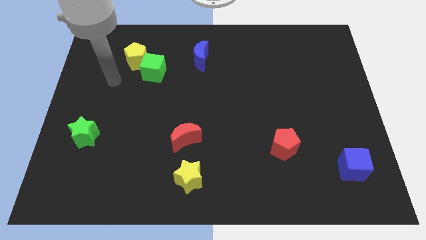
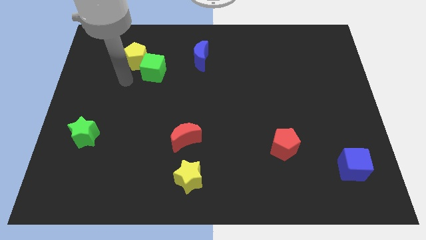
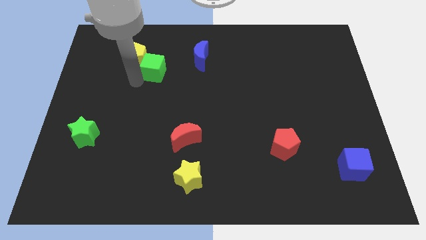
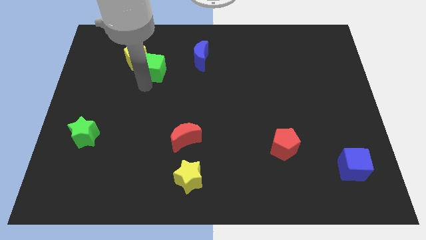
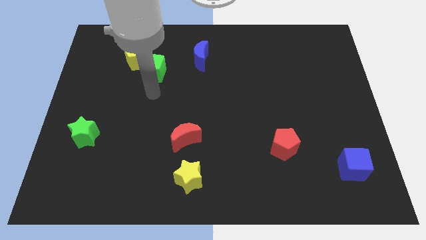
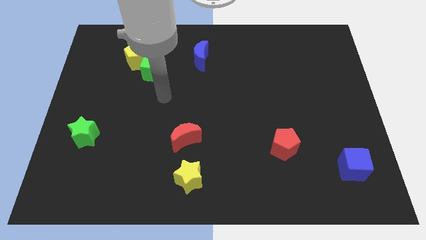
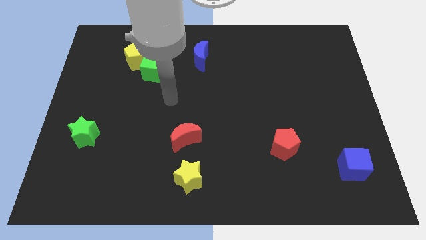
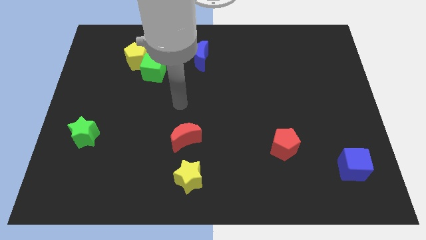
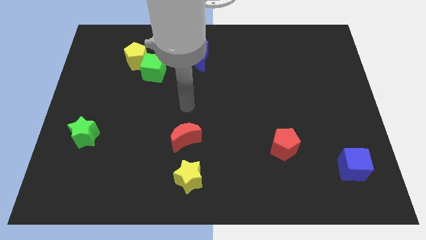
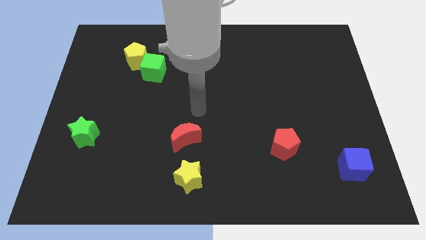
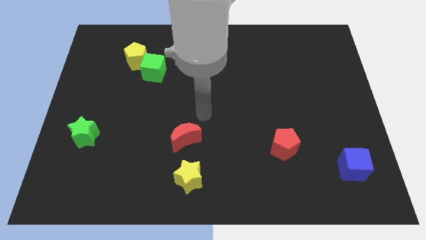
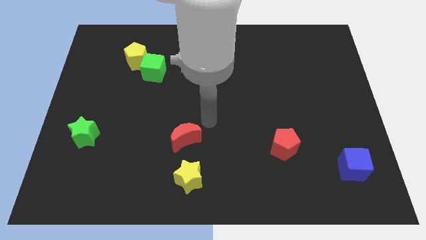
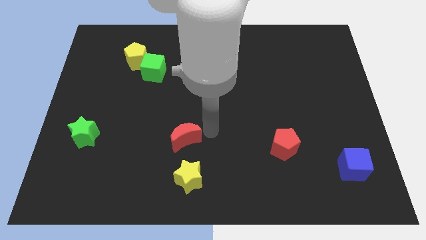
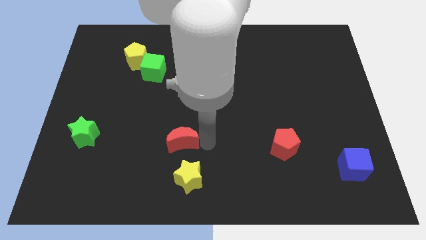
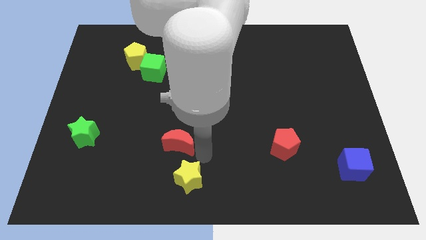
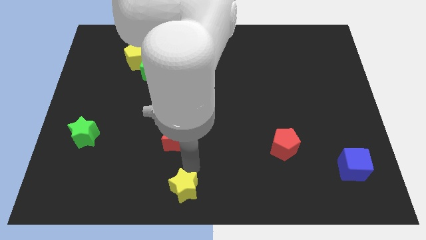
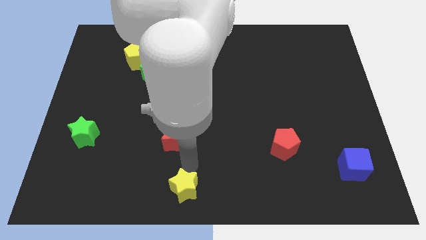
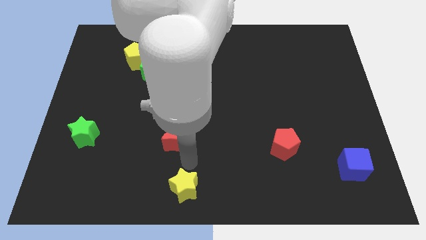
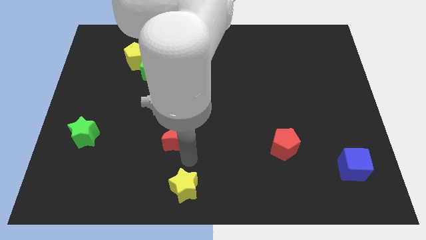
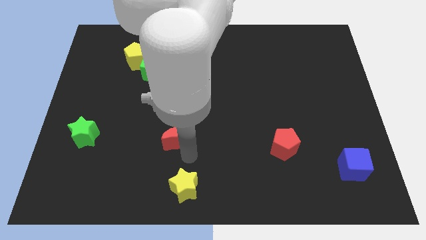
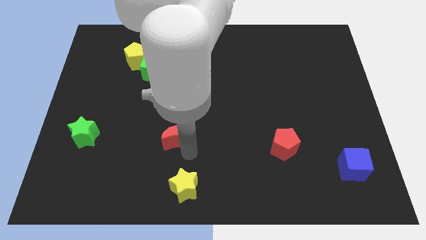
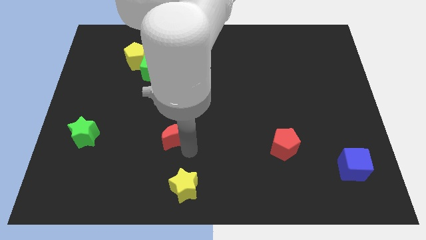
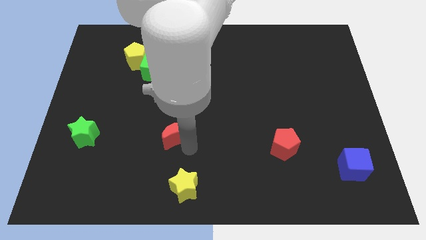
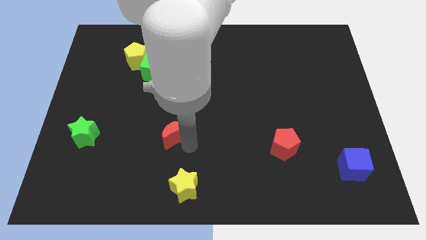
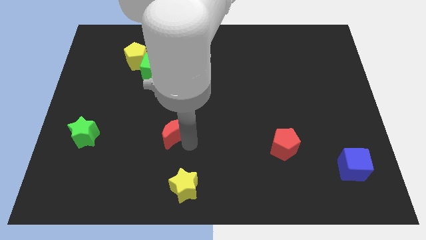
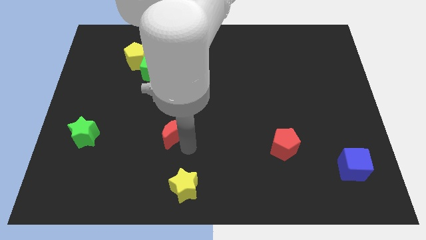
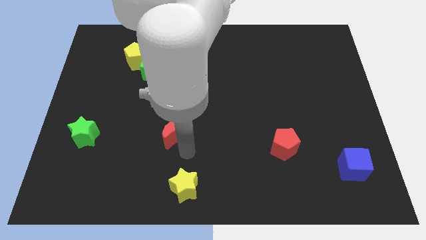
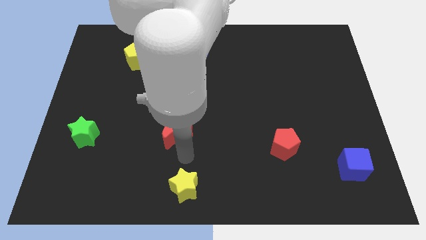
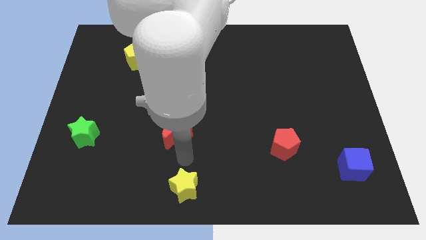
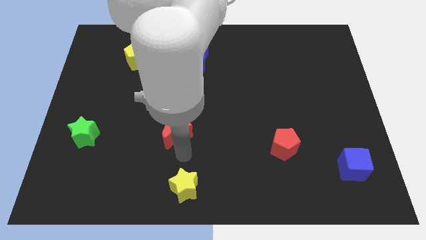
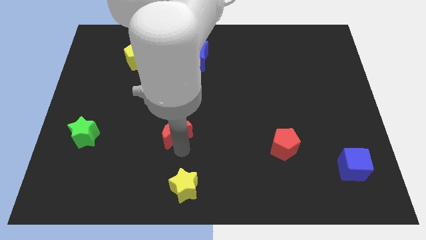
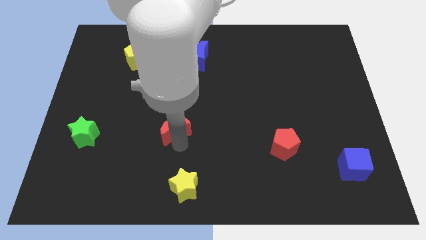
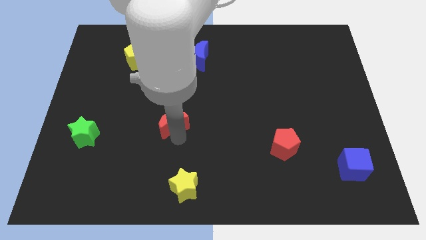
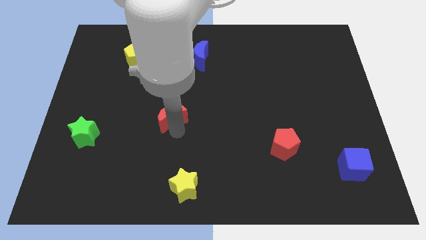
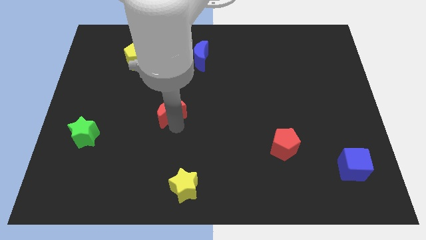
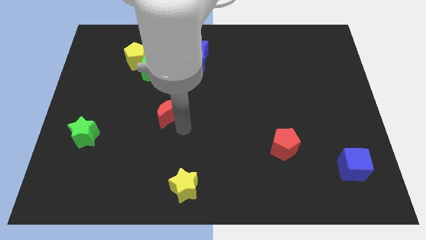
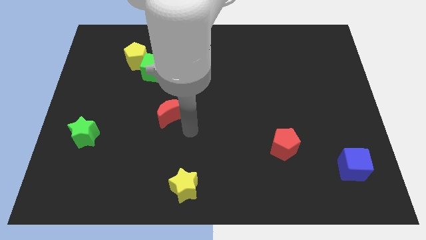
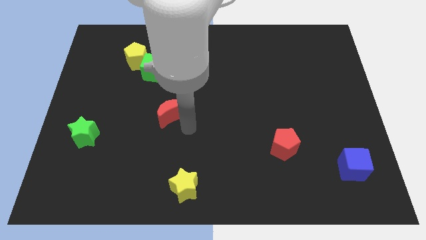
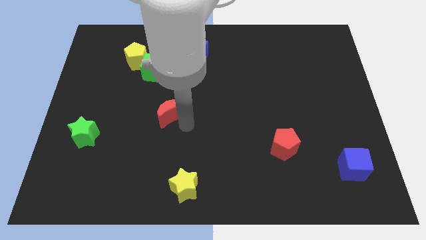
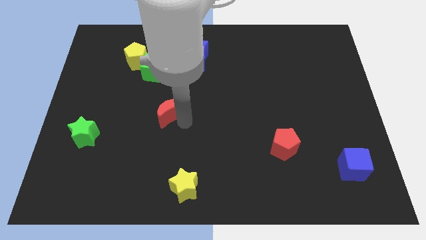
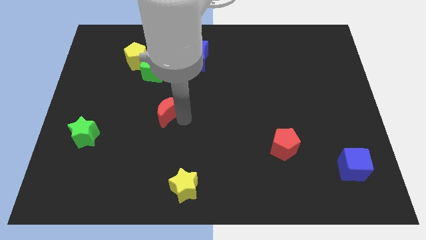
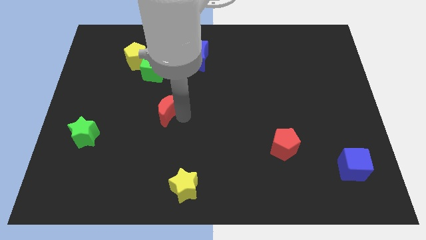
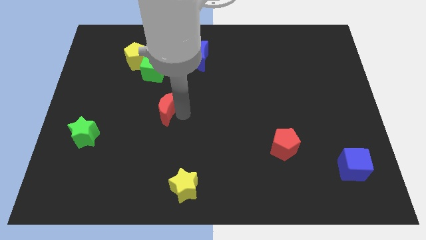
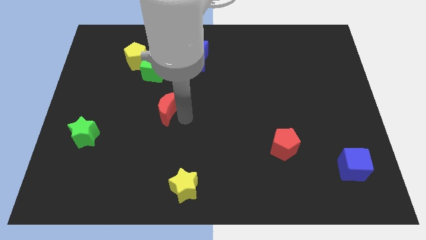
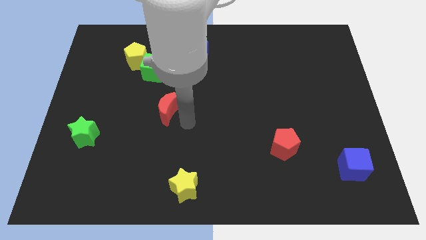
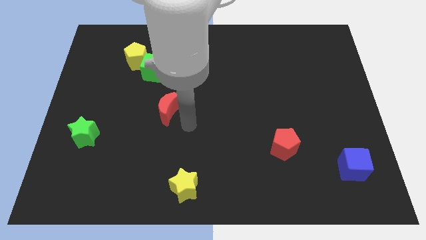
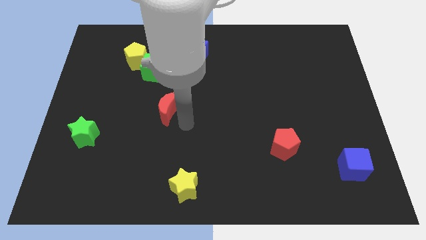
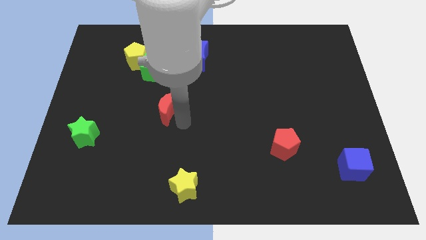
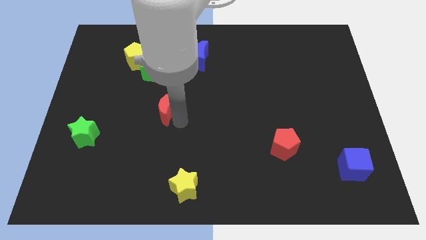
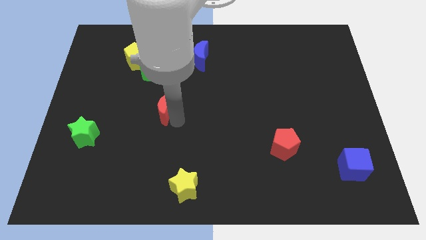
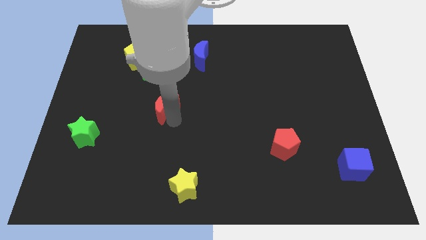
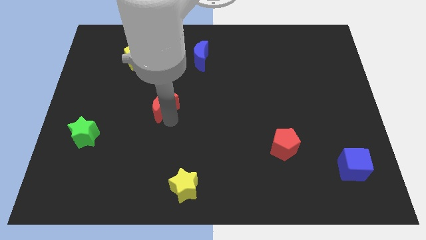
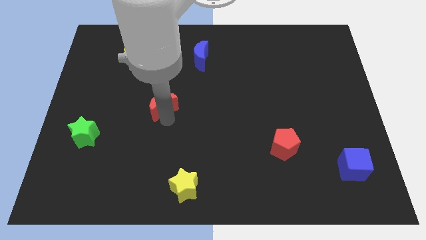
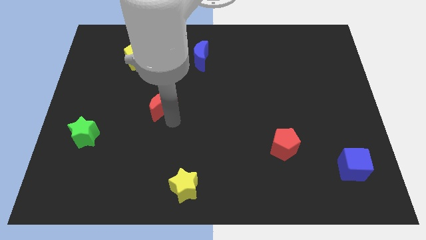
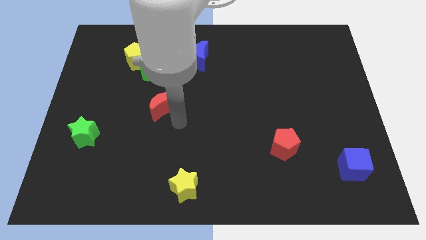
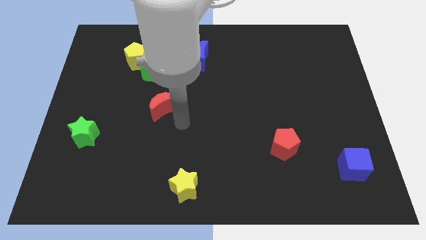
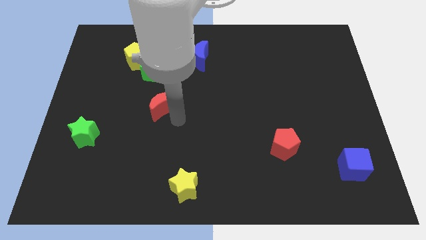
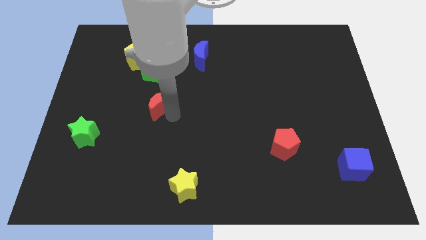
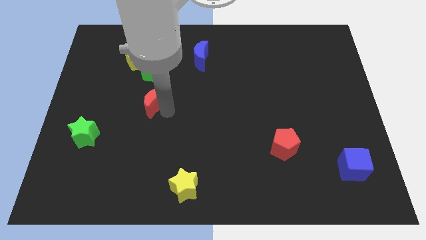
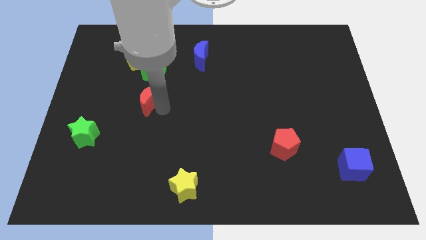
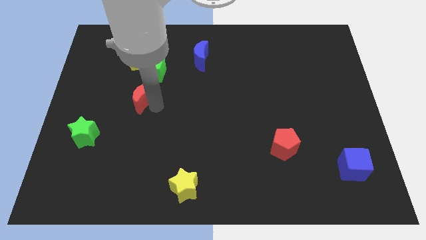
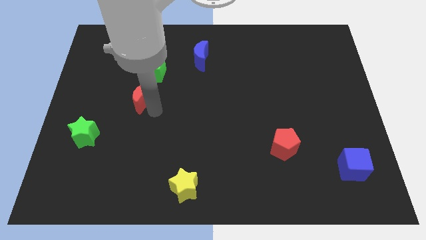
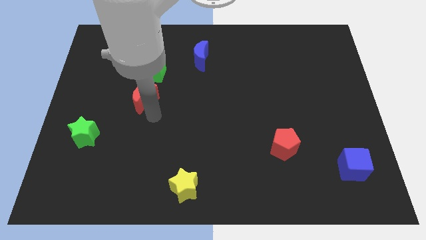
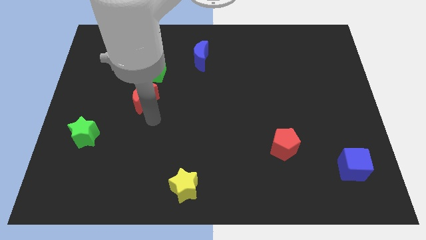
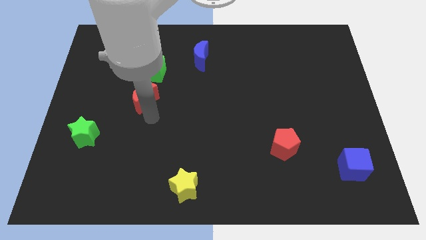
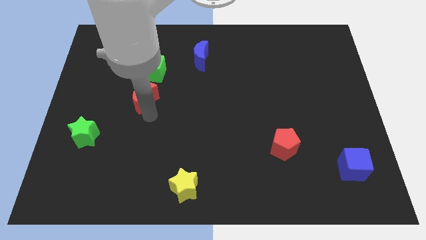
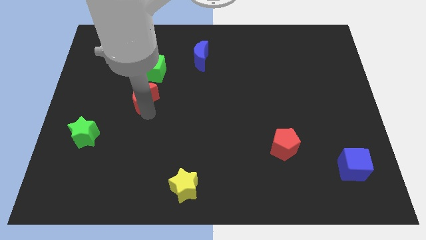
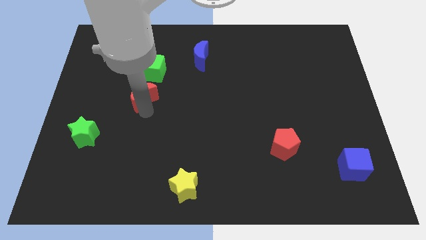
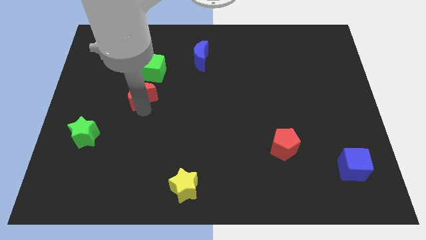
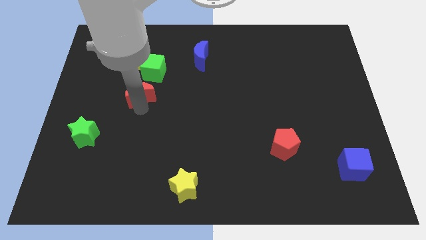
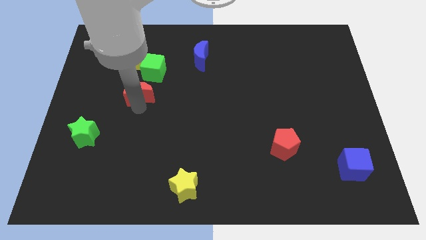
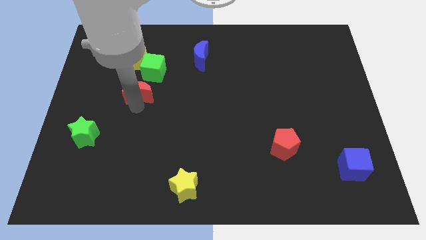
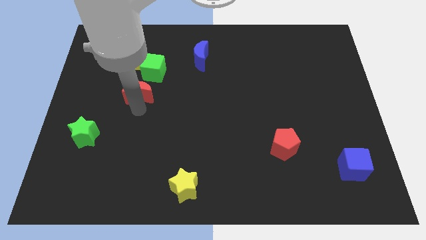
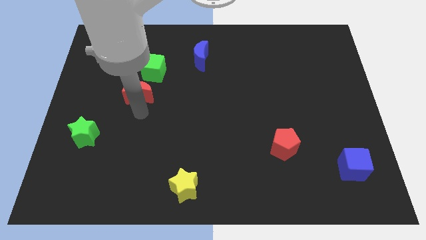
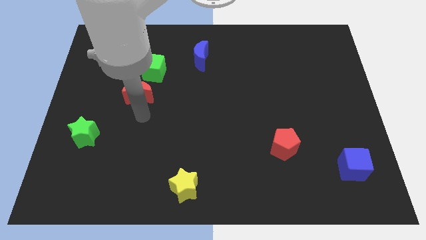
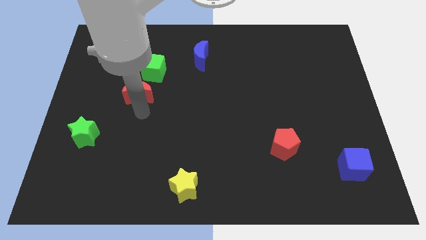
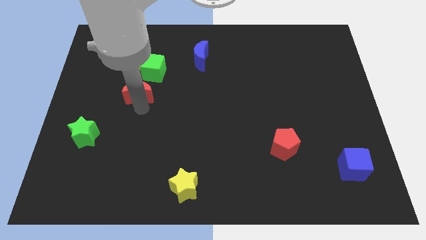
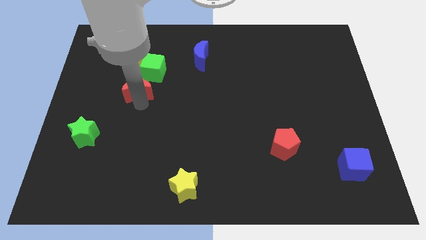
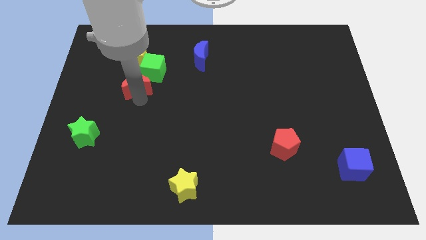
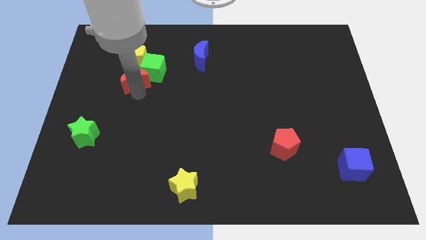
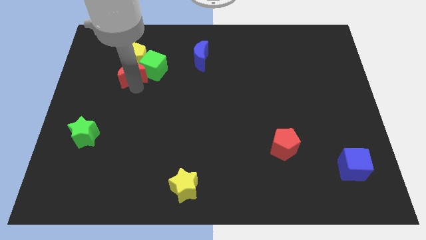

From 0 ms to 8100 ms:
put the red moon towards the yellow pentagon
